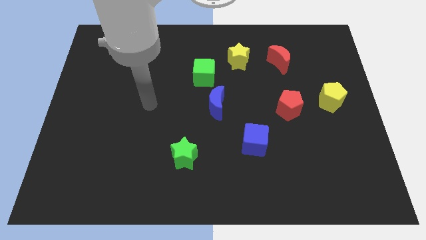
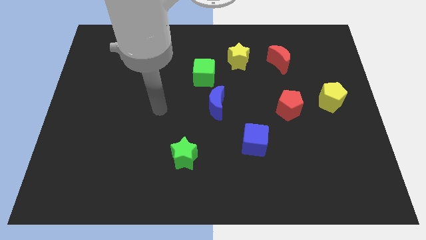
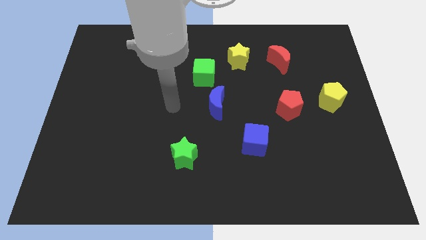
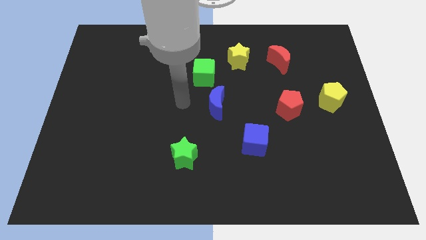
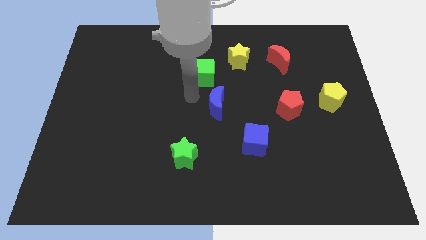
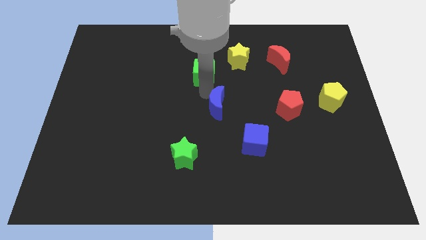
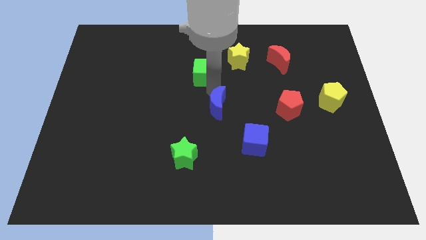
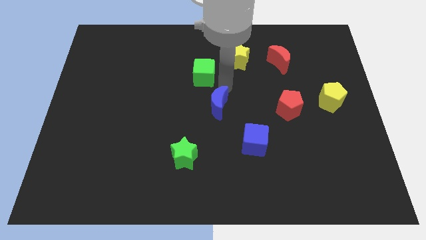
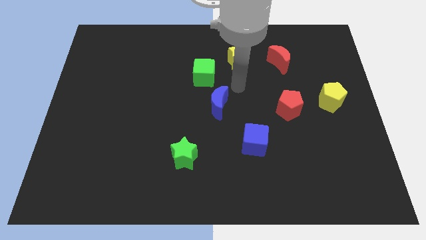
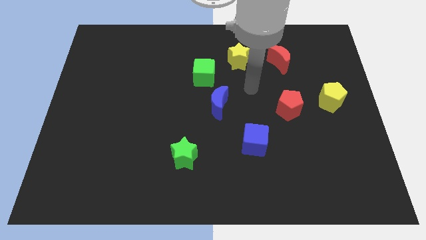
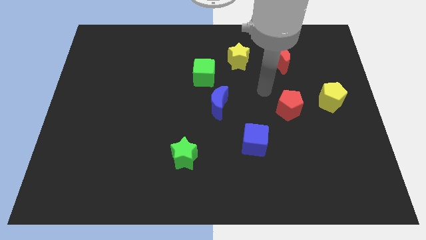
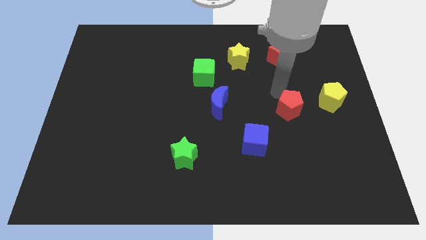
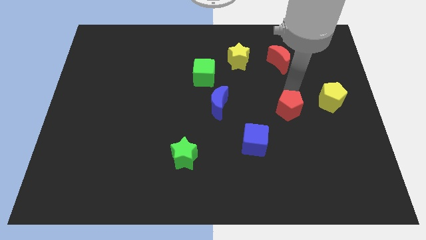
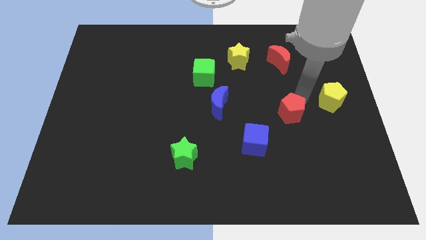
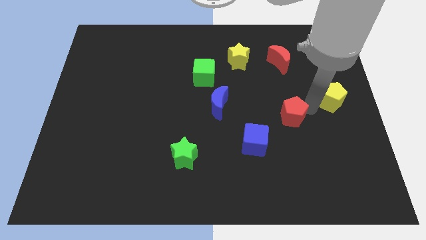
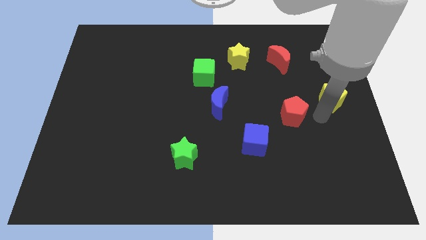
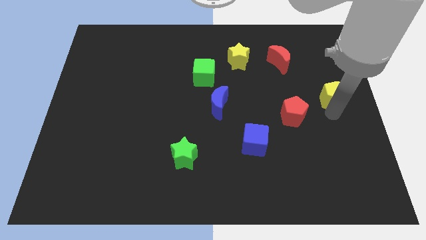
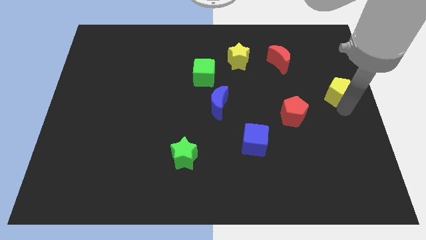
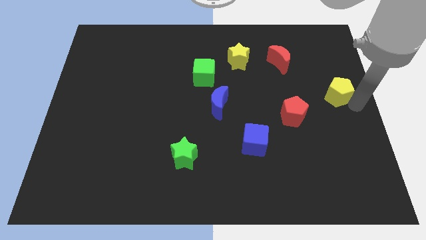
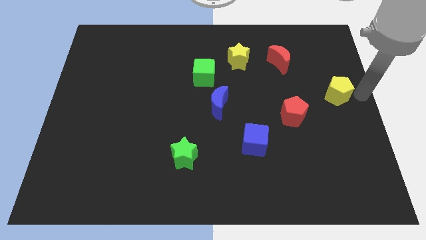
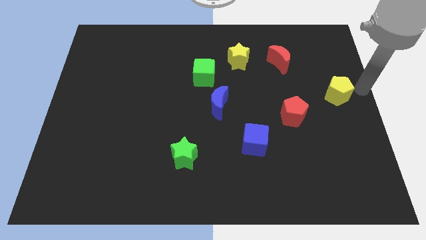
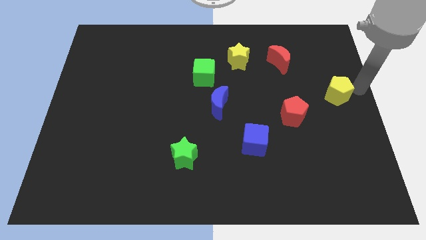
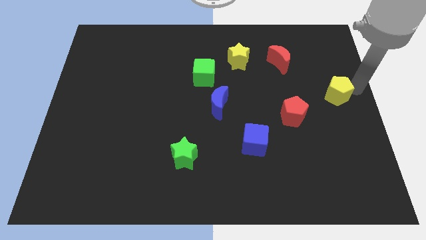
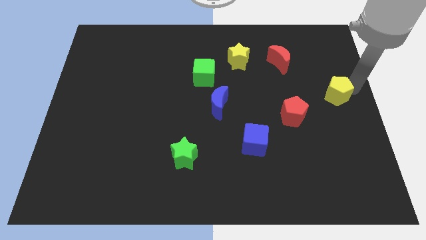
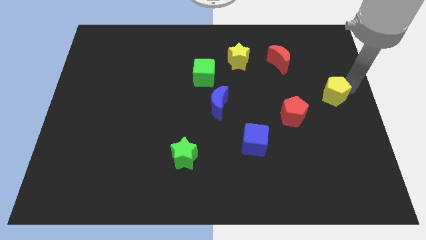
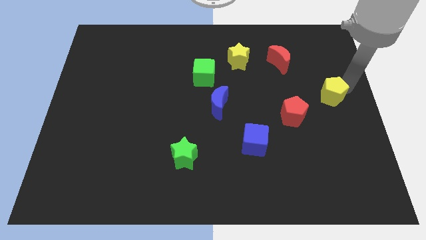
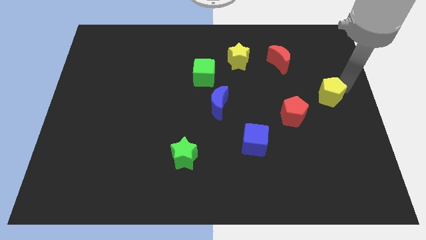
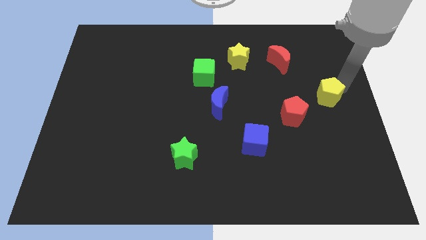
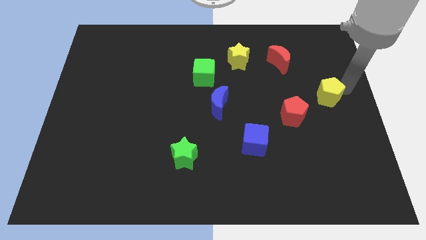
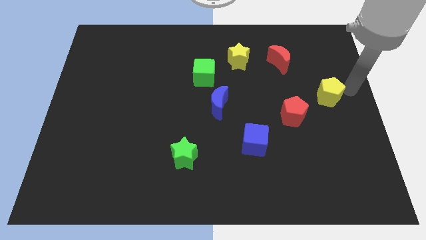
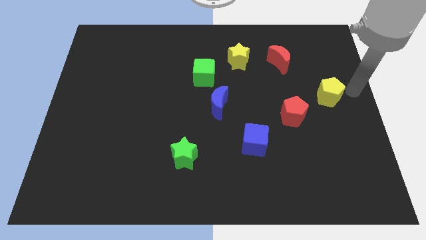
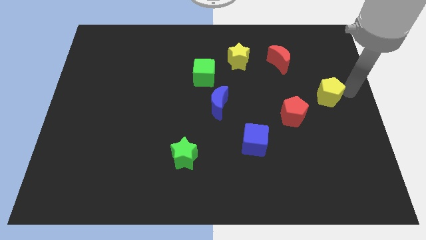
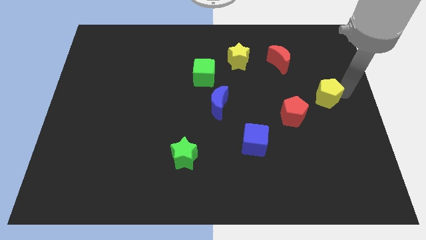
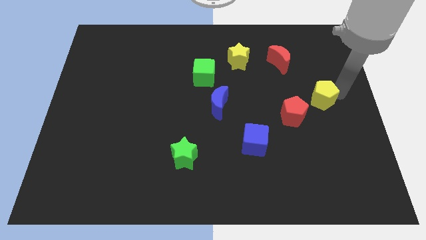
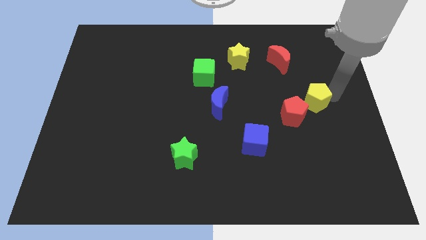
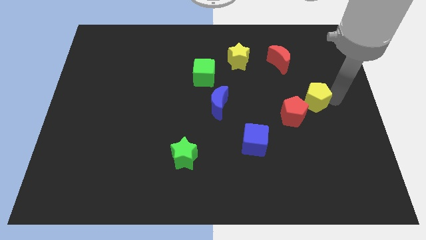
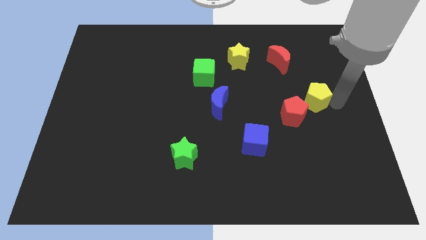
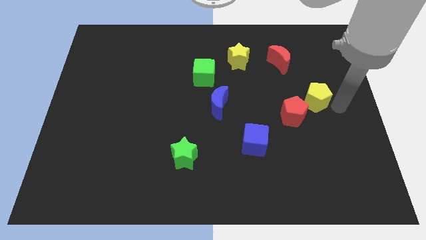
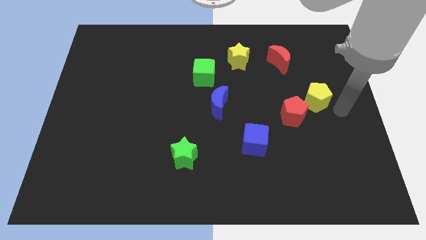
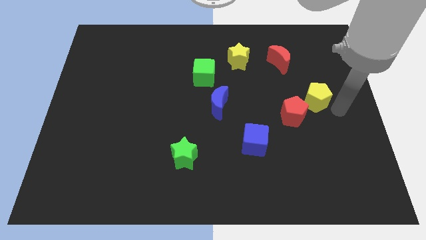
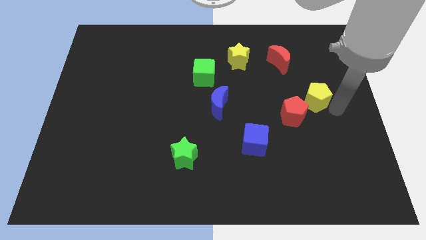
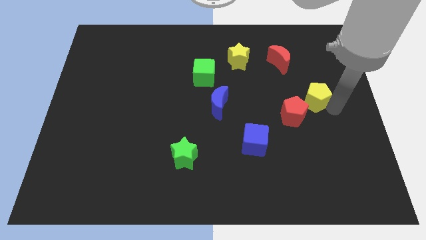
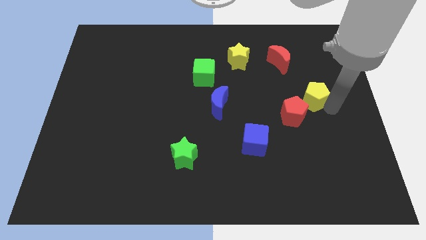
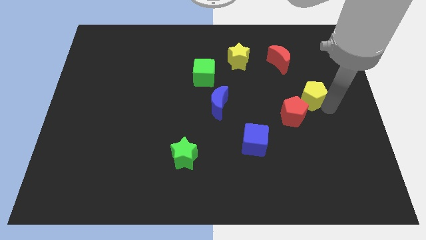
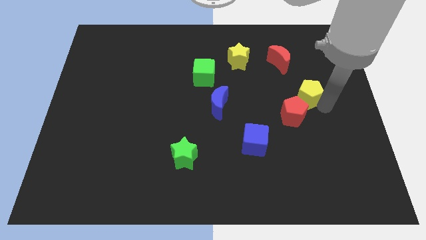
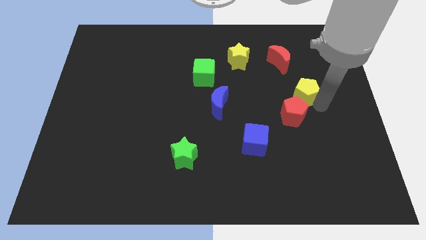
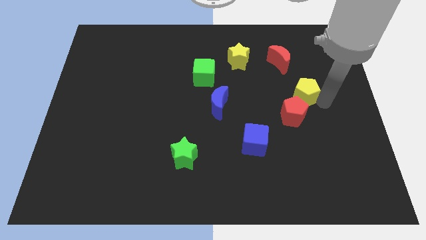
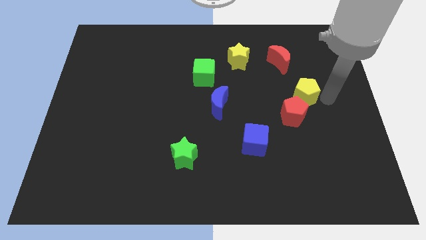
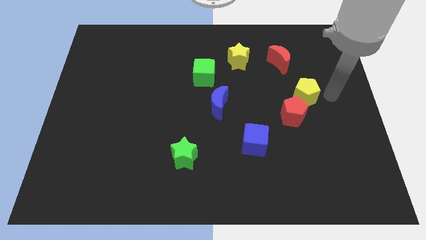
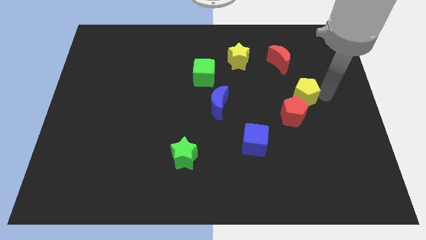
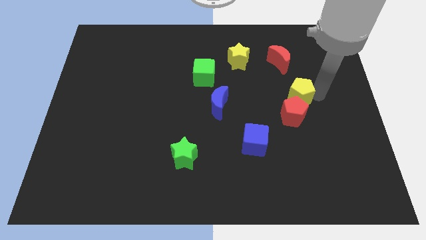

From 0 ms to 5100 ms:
slide the yellow pentagon left a little

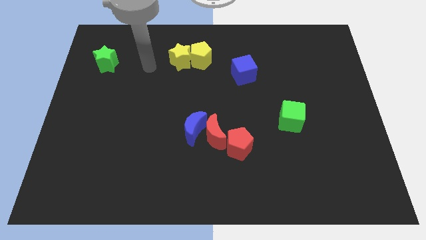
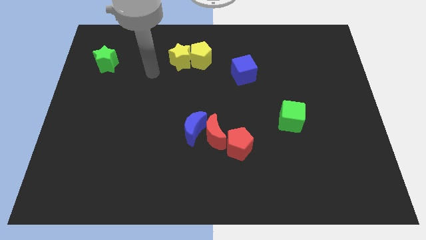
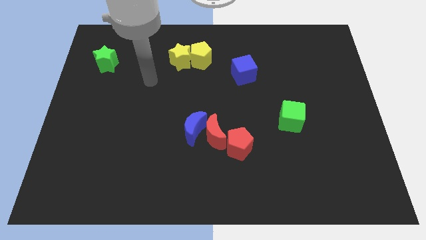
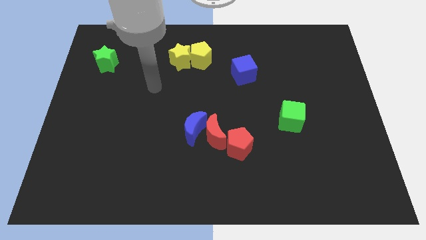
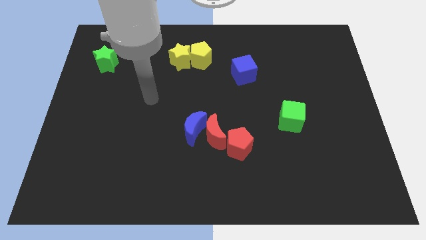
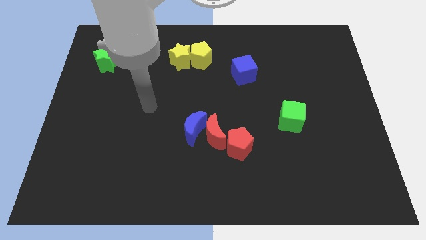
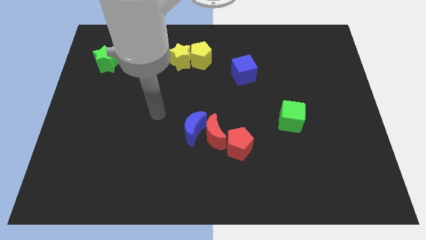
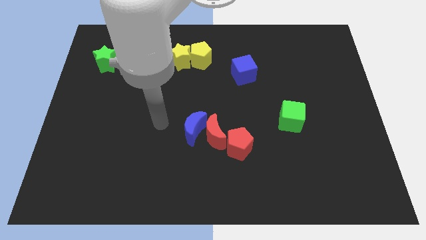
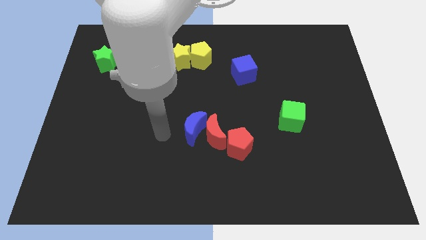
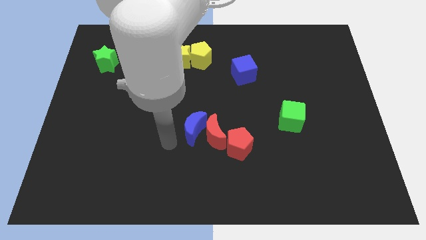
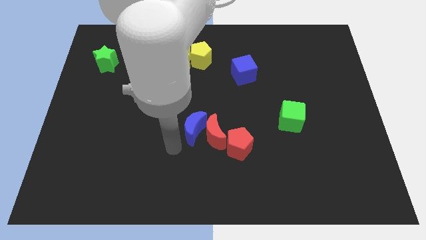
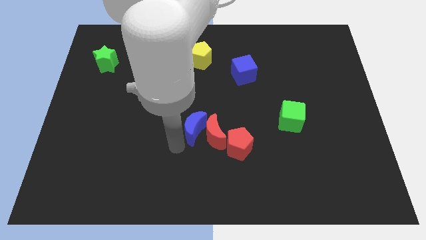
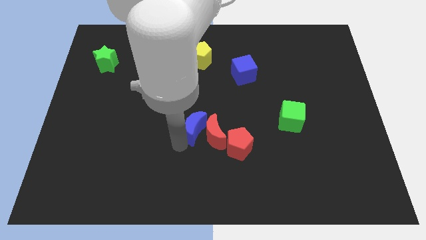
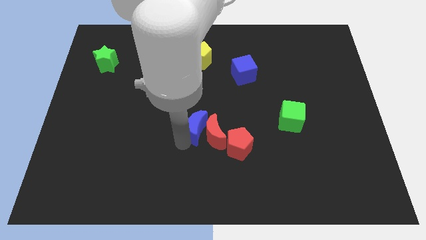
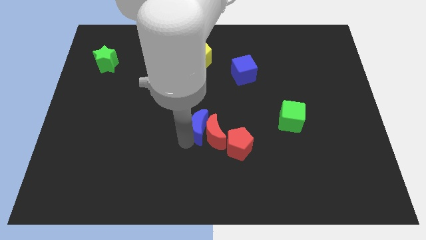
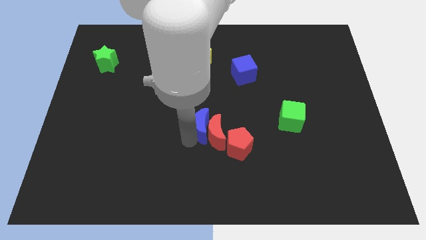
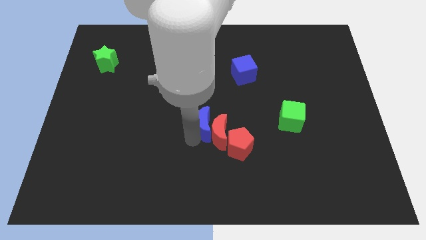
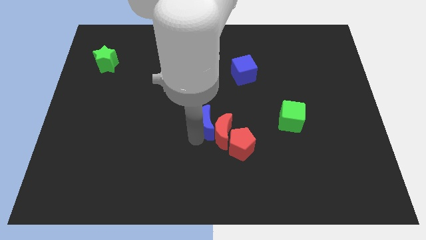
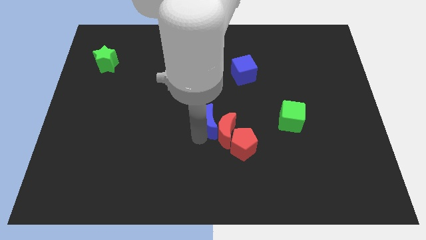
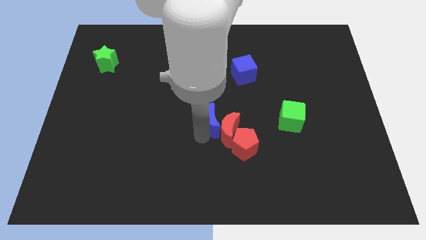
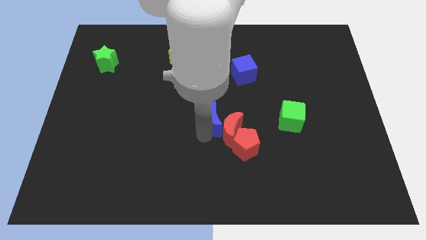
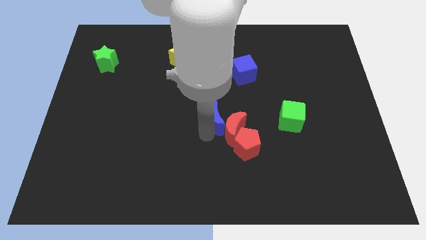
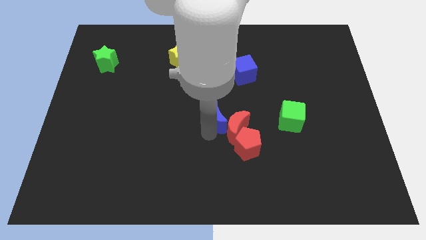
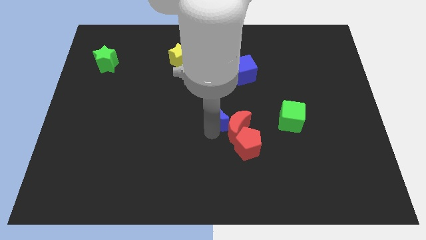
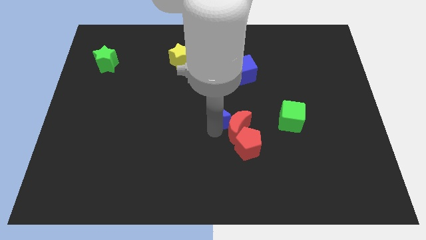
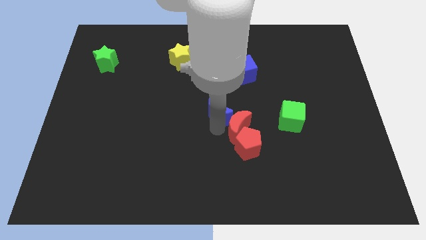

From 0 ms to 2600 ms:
slightly push the blue moon upwards and then right

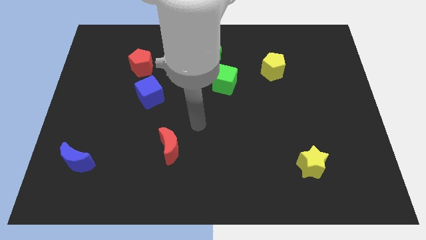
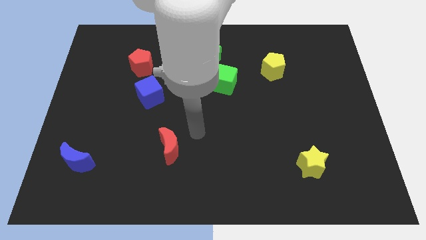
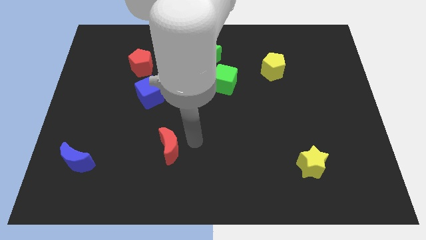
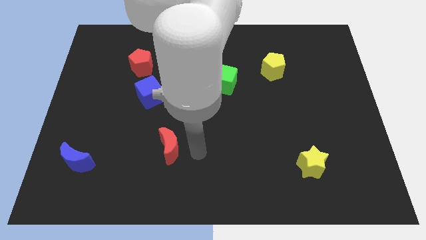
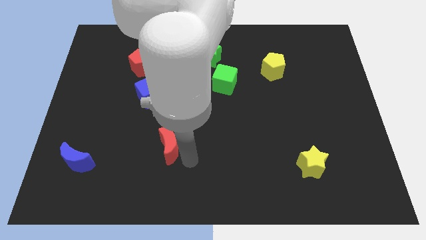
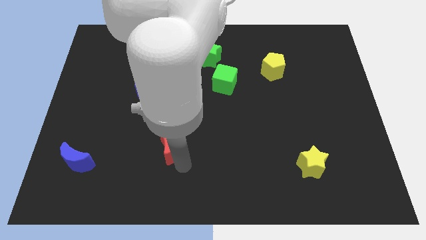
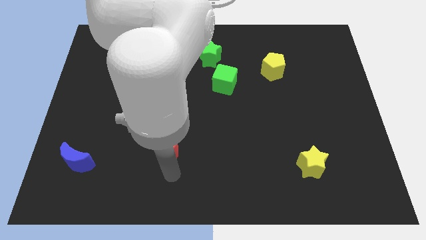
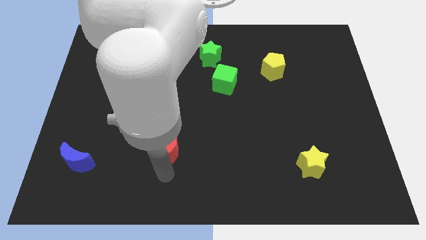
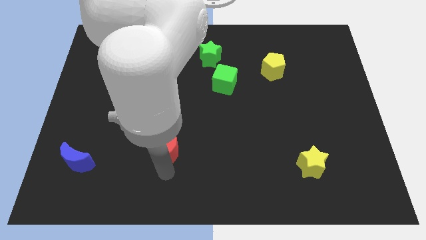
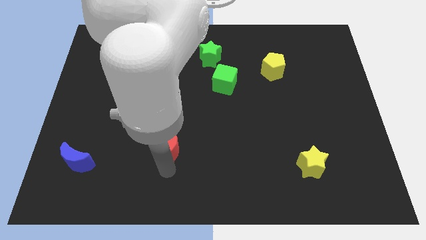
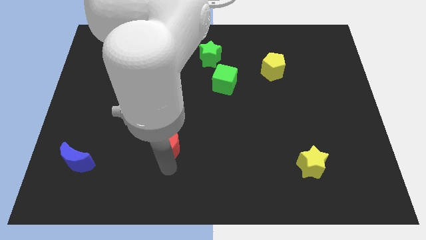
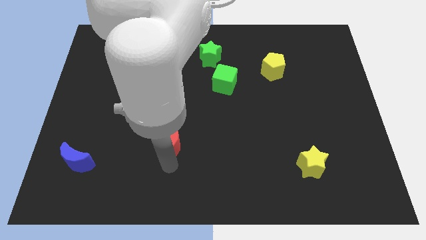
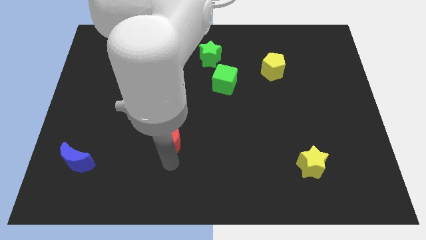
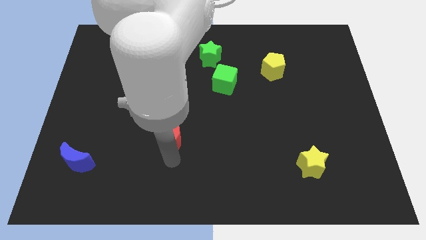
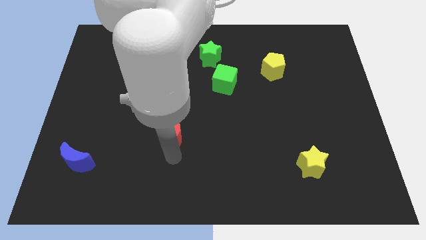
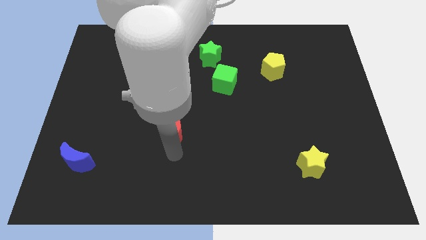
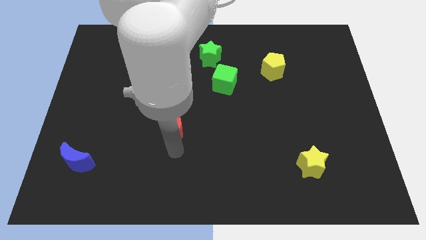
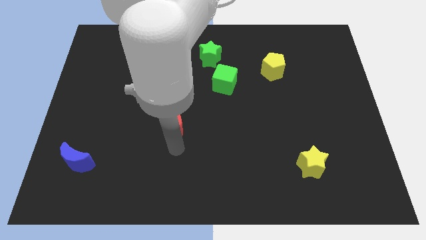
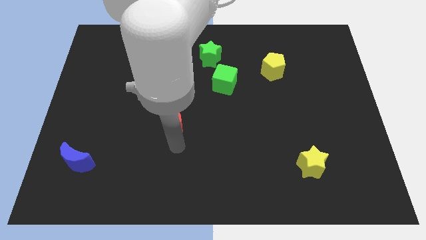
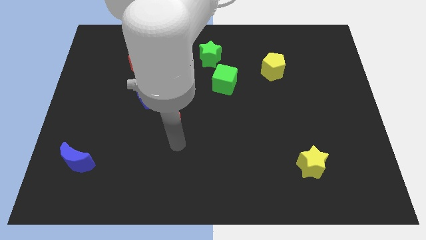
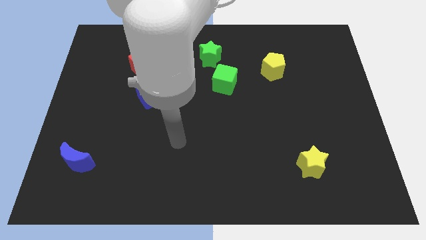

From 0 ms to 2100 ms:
slide the red moon up a bit
